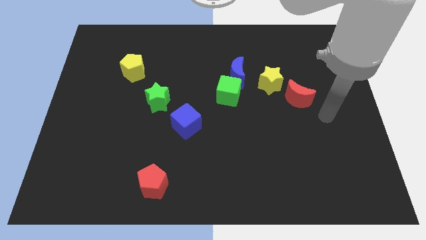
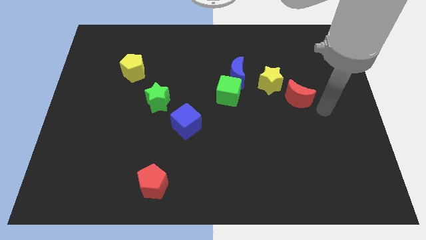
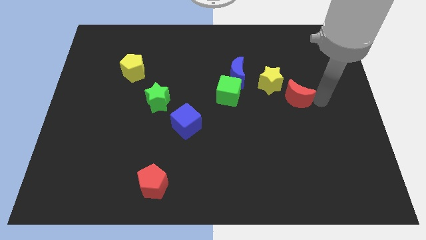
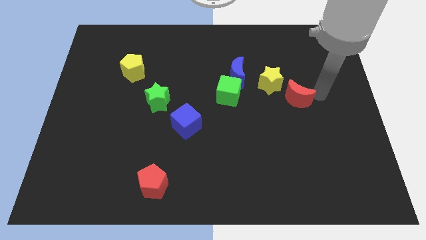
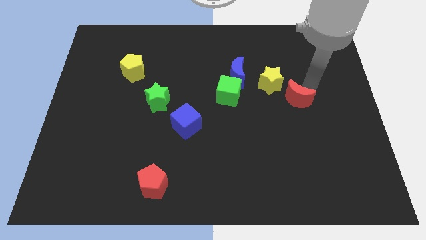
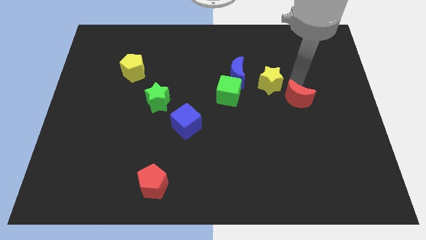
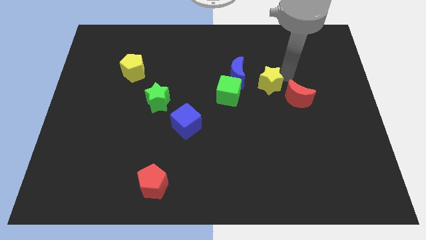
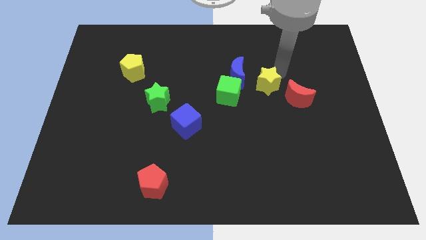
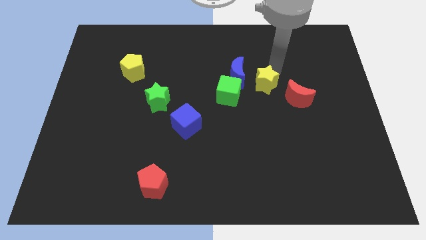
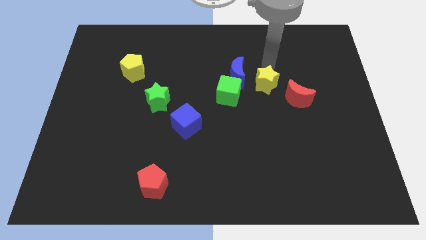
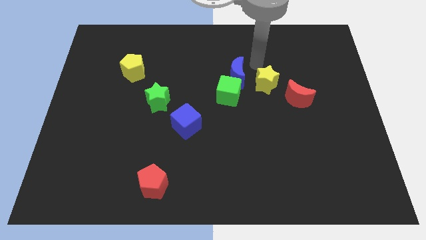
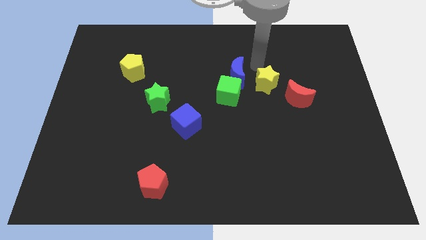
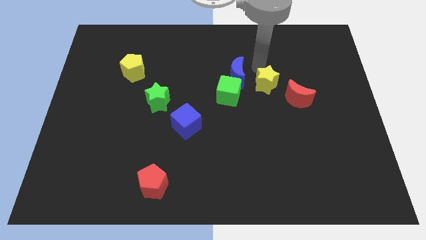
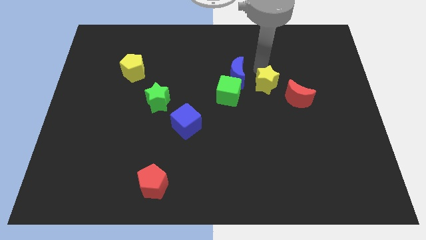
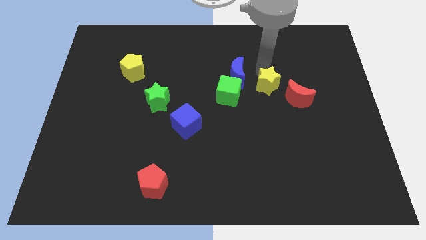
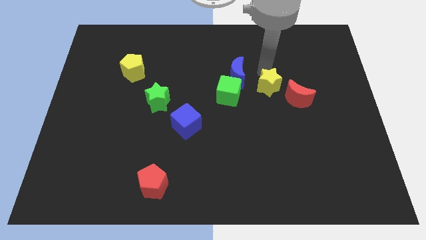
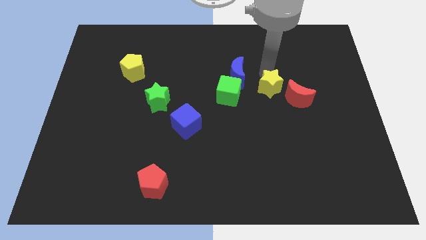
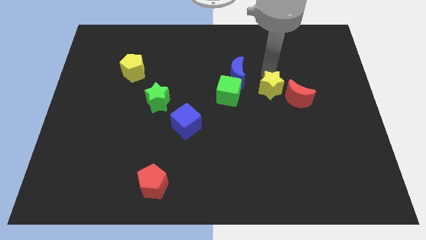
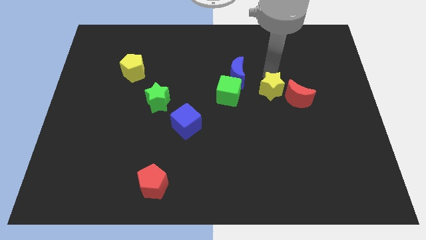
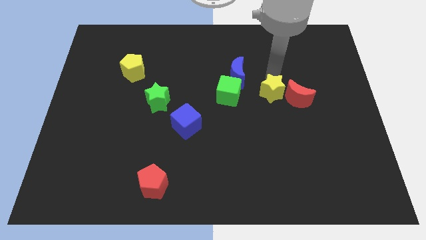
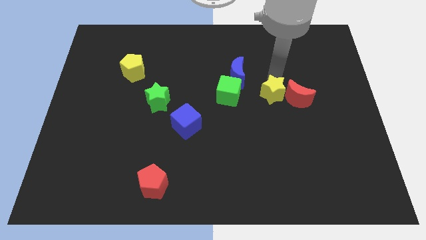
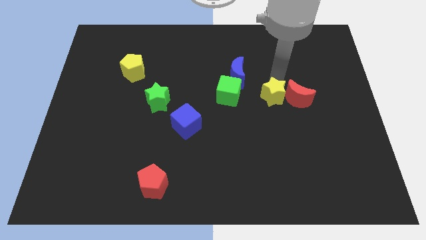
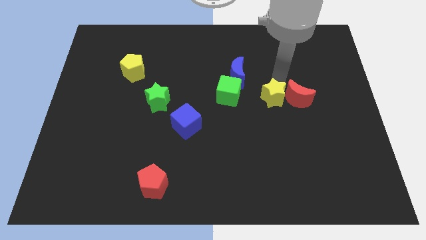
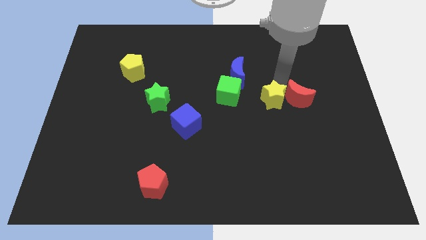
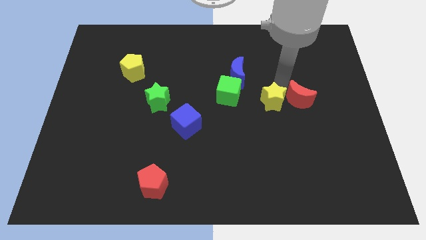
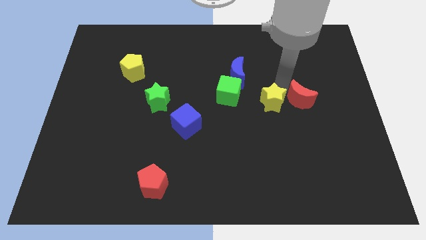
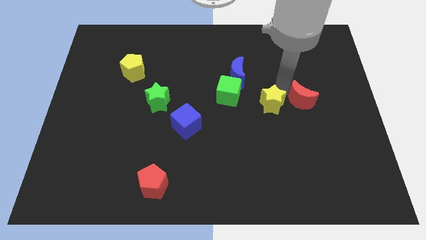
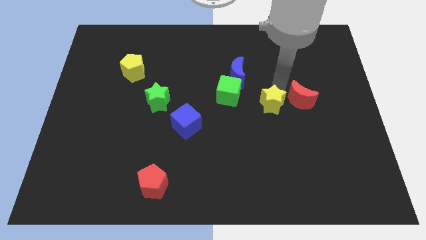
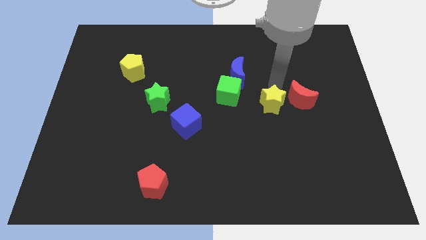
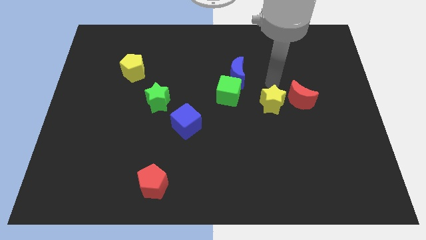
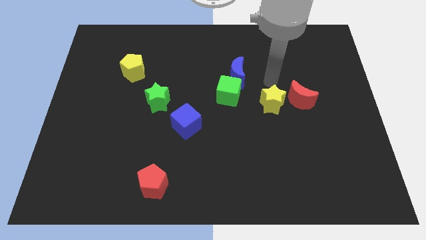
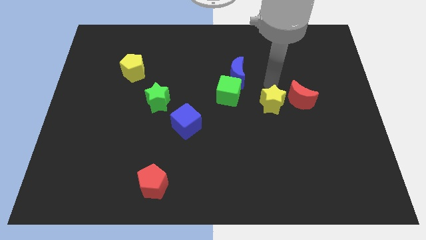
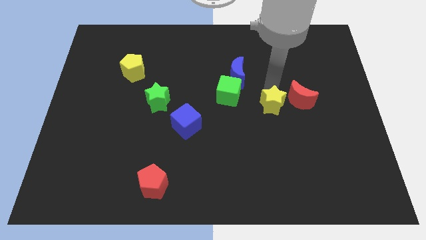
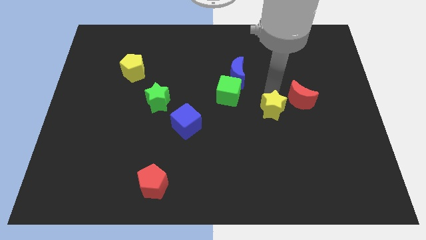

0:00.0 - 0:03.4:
slide the yellow star down somewhat

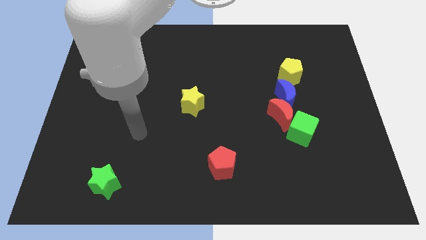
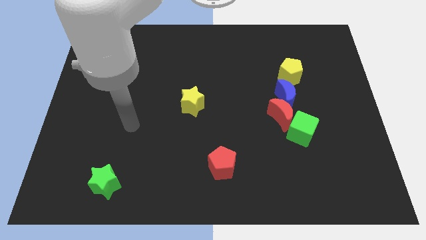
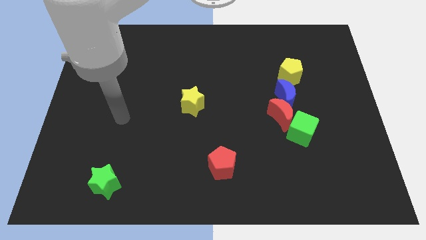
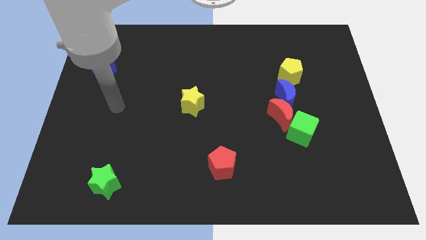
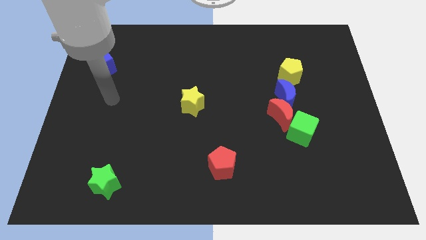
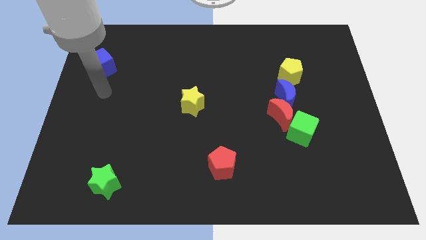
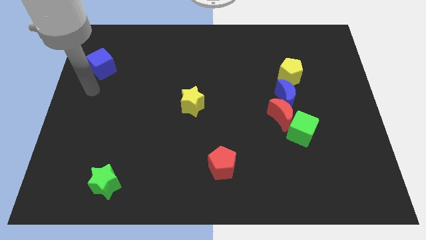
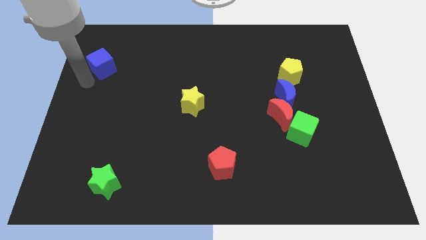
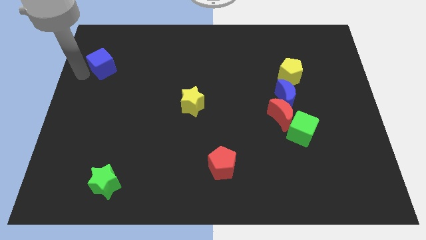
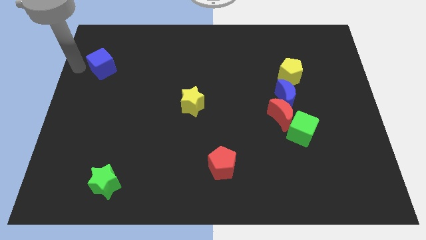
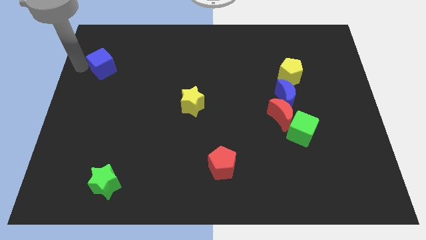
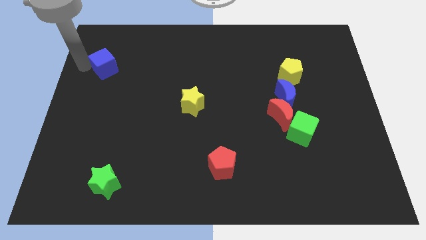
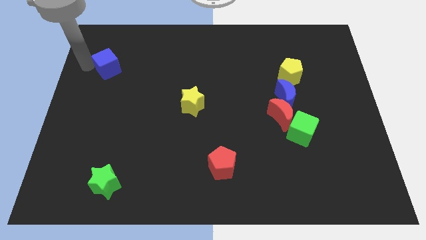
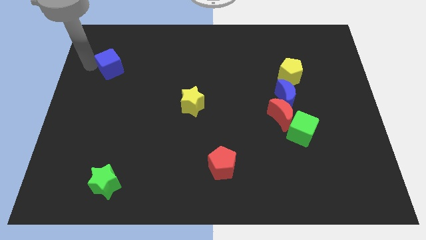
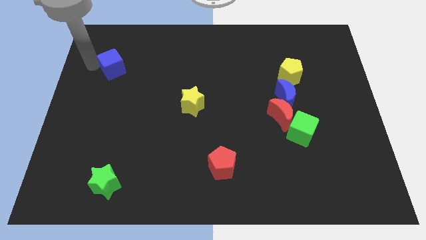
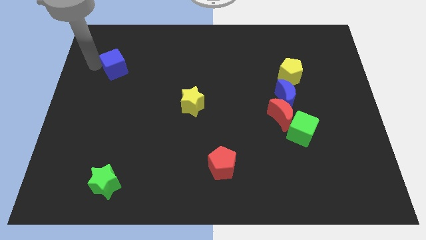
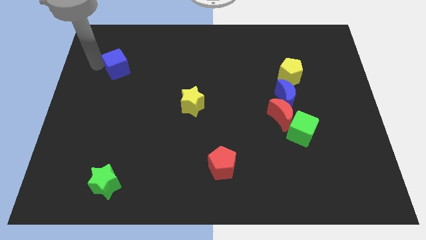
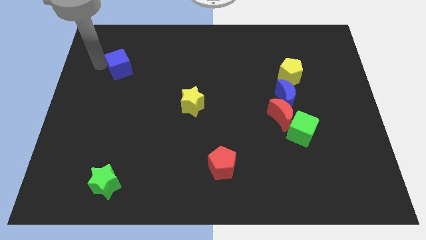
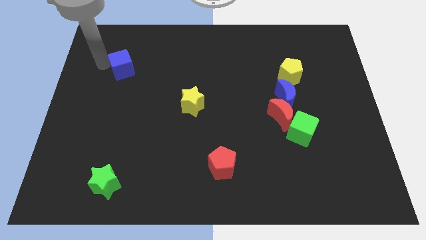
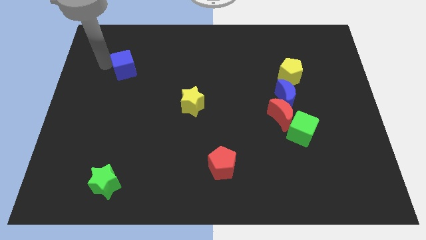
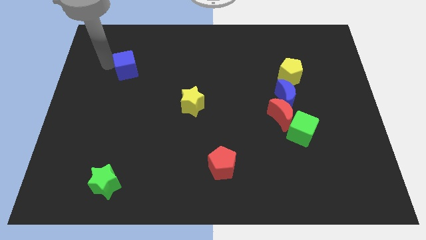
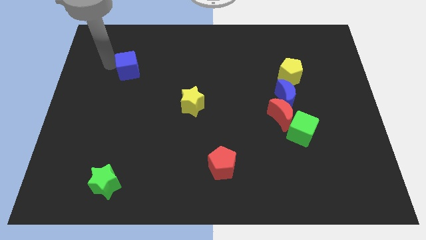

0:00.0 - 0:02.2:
move the blue cube somewhat to the right

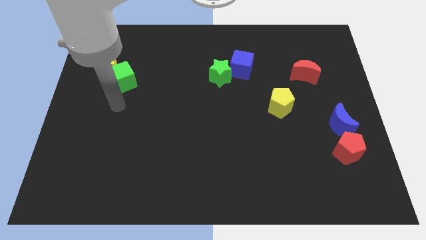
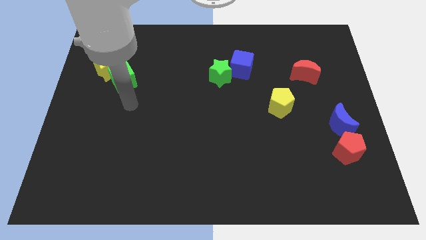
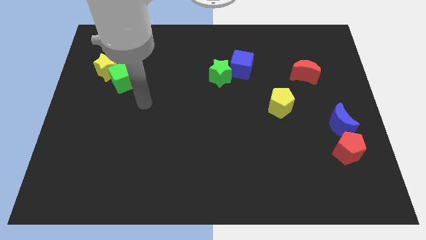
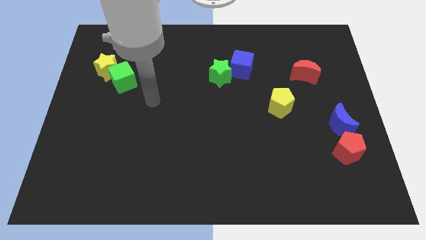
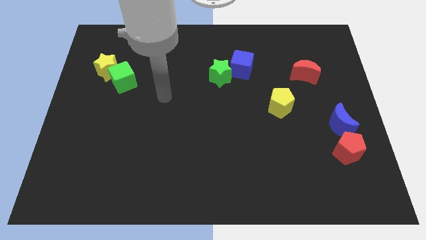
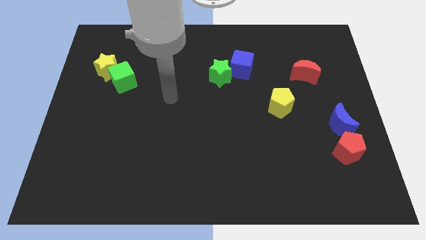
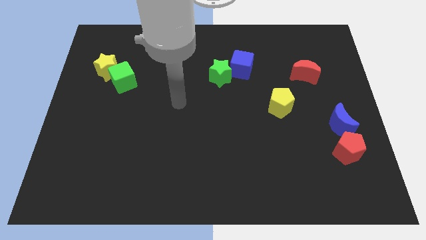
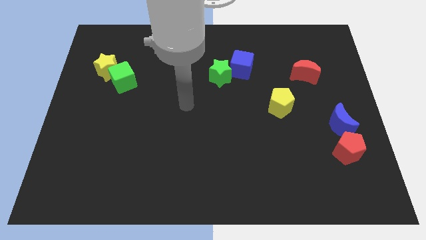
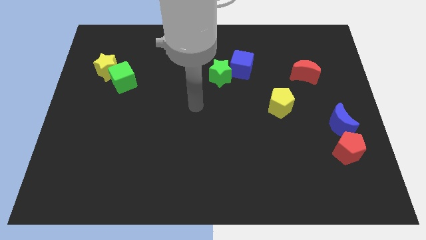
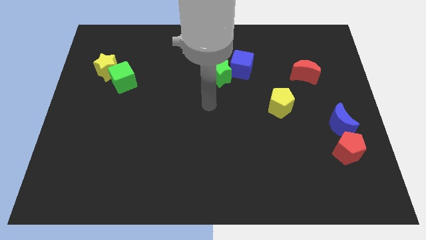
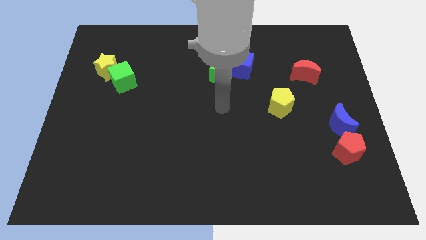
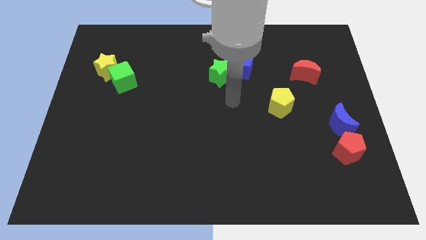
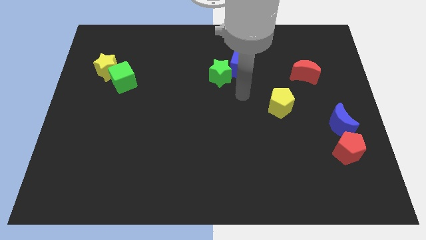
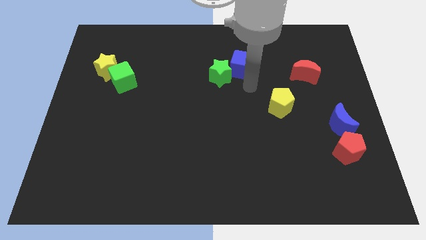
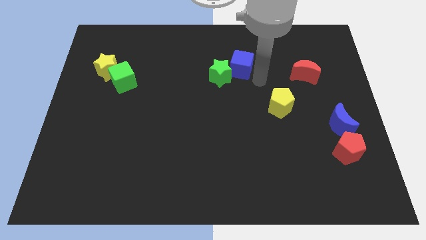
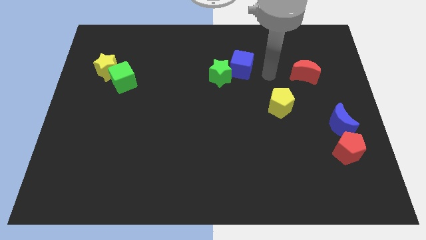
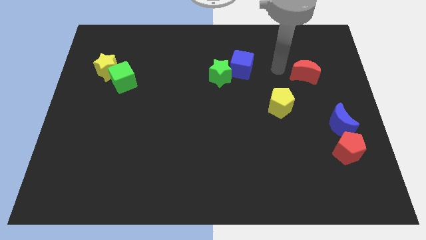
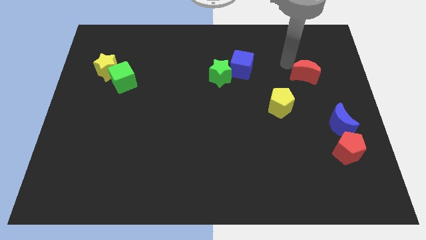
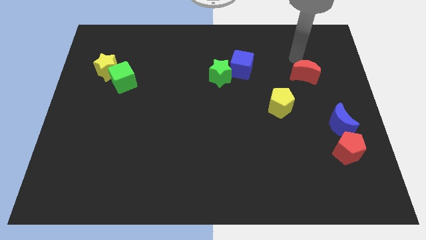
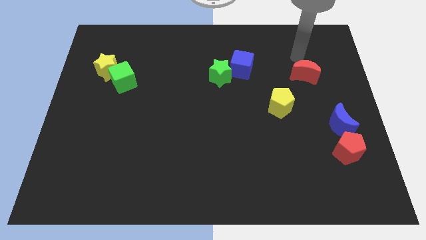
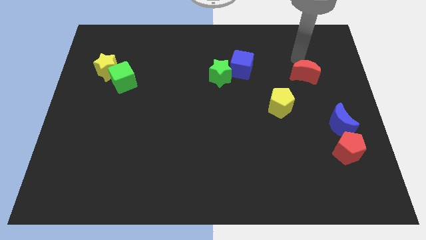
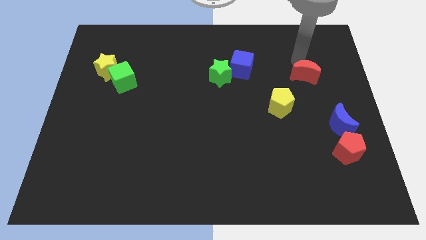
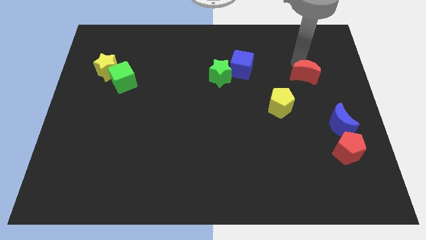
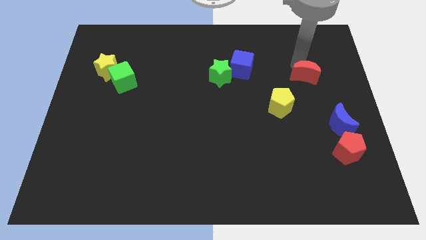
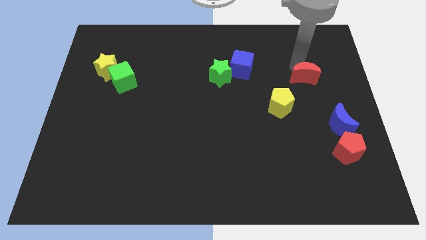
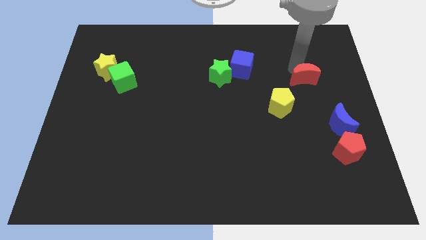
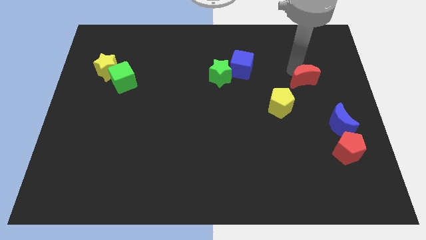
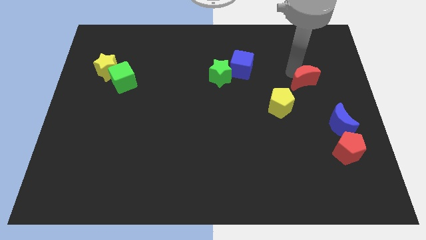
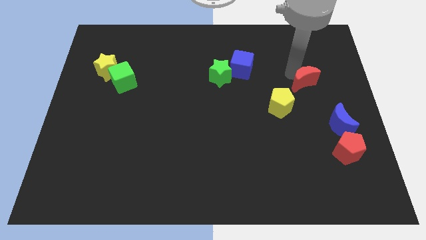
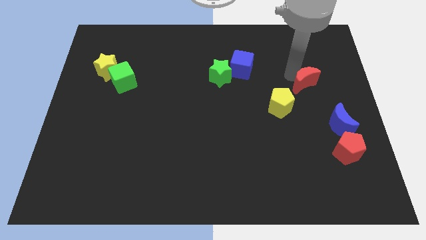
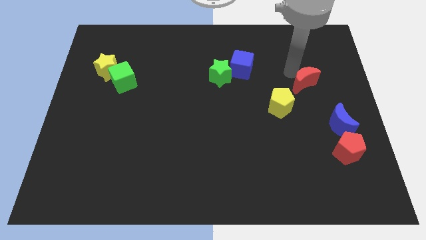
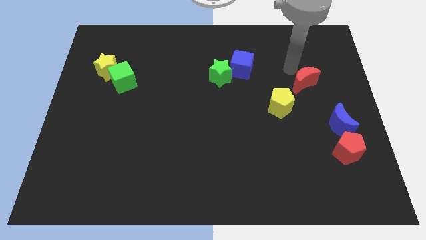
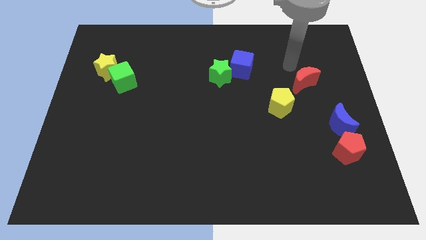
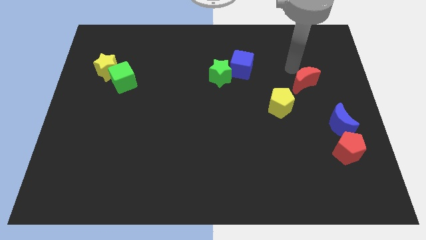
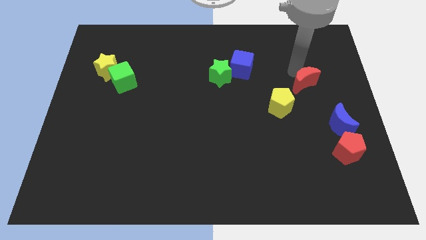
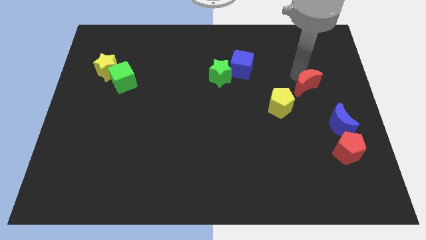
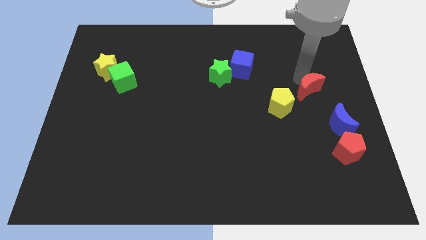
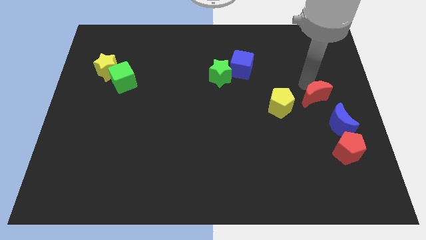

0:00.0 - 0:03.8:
slide the red moon downwards a bit
